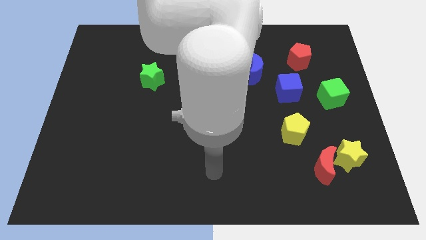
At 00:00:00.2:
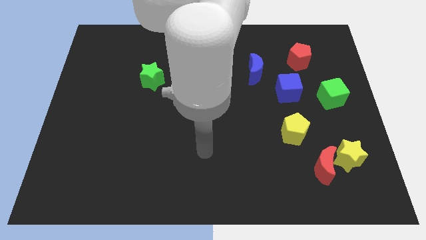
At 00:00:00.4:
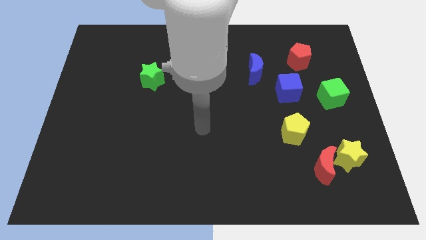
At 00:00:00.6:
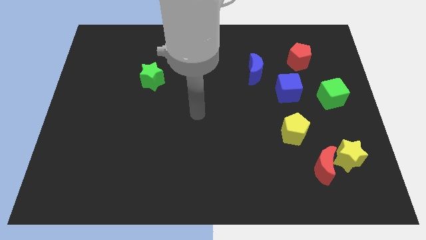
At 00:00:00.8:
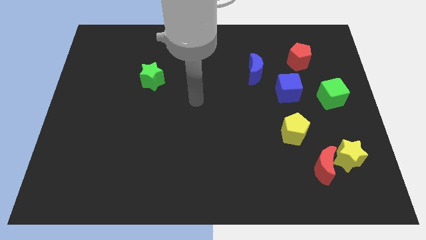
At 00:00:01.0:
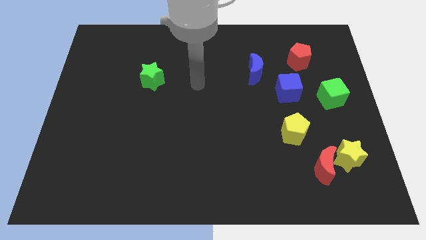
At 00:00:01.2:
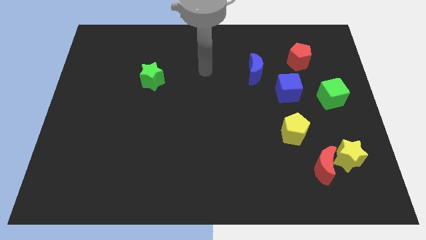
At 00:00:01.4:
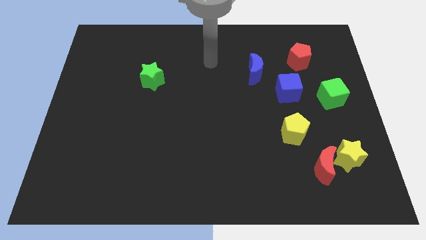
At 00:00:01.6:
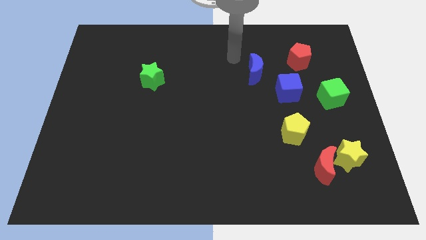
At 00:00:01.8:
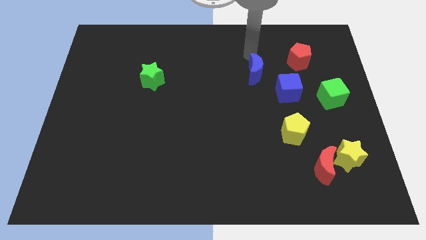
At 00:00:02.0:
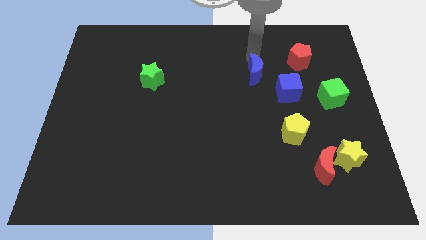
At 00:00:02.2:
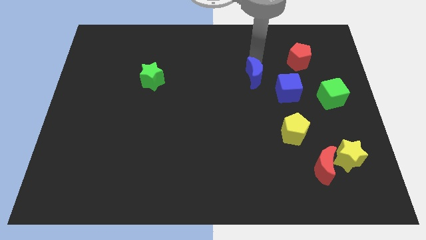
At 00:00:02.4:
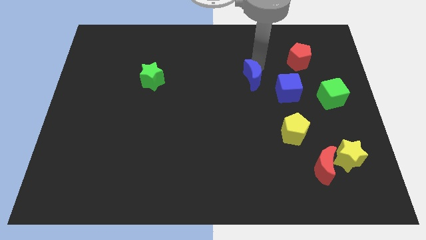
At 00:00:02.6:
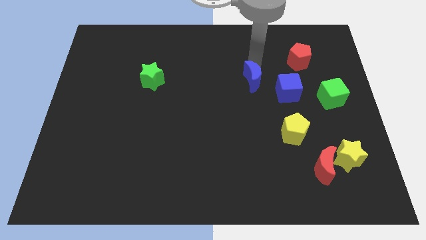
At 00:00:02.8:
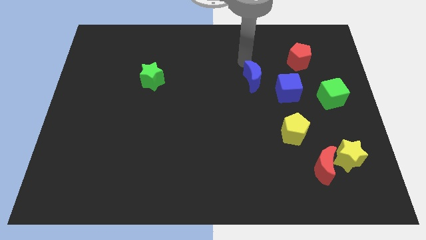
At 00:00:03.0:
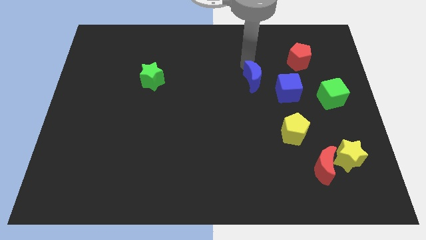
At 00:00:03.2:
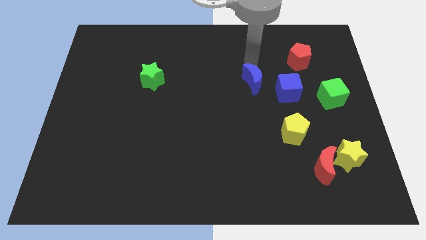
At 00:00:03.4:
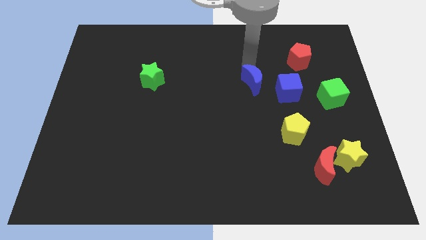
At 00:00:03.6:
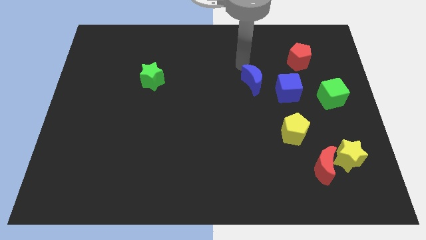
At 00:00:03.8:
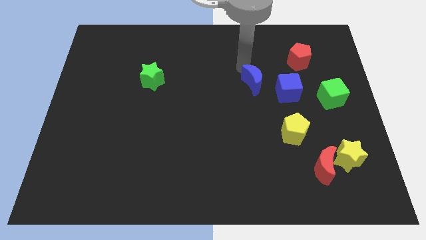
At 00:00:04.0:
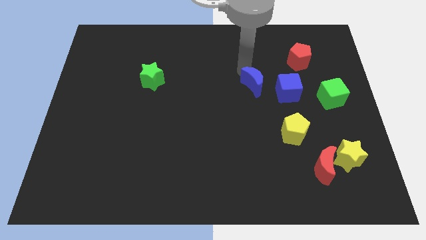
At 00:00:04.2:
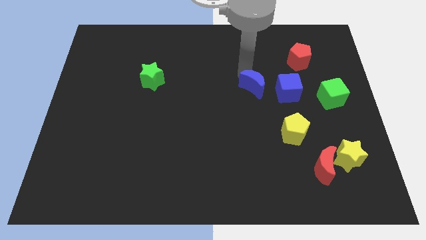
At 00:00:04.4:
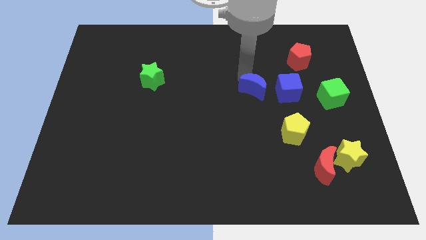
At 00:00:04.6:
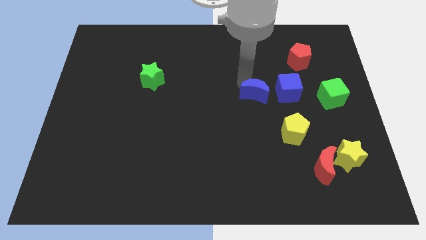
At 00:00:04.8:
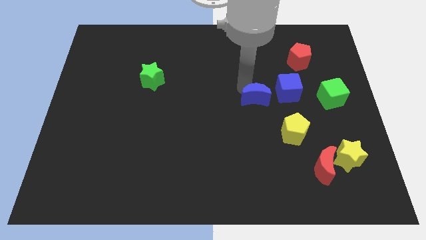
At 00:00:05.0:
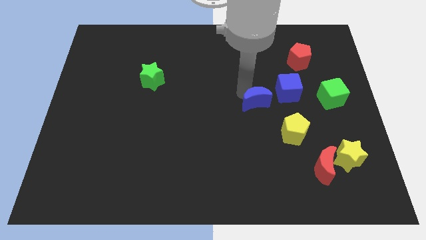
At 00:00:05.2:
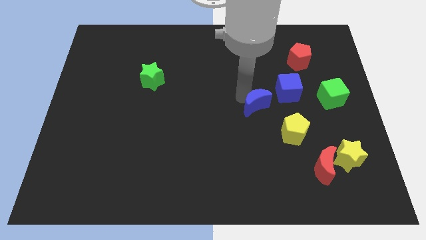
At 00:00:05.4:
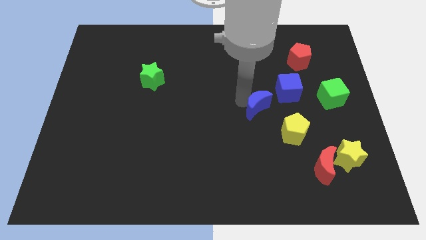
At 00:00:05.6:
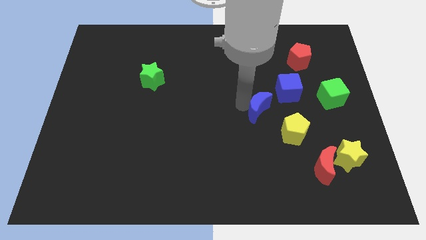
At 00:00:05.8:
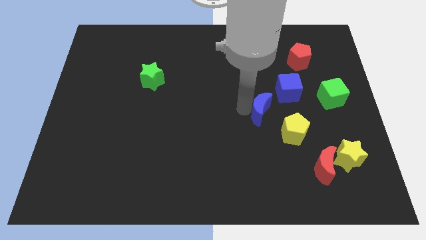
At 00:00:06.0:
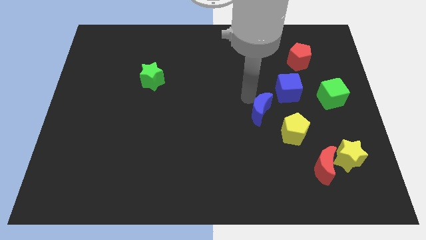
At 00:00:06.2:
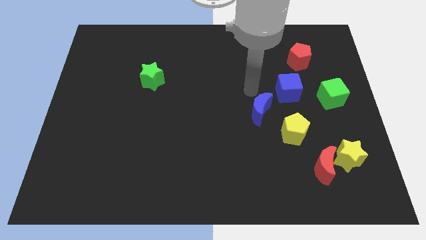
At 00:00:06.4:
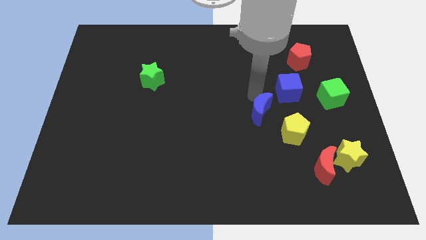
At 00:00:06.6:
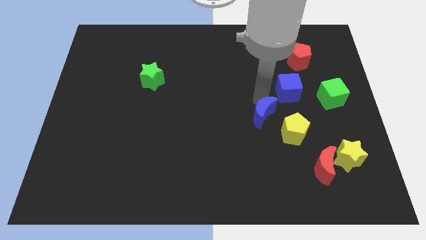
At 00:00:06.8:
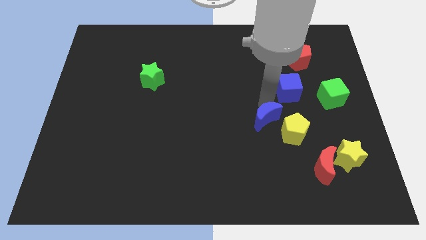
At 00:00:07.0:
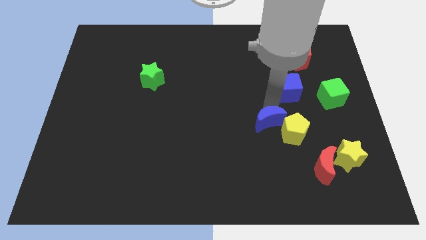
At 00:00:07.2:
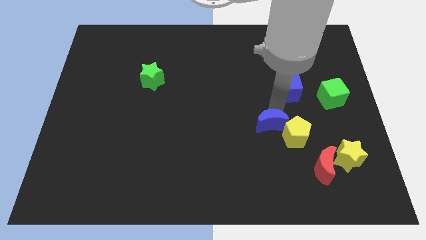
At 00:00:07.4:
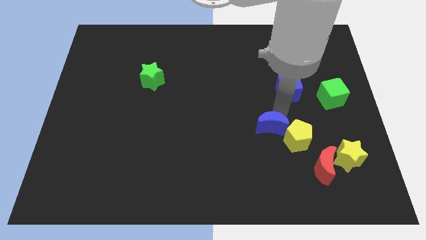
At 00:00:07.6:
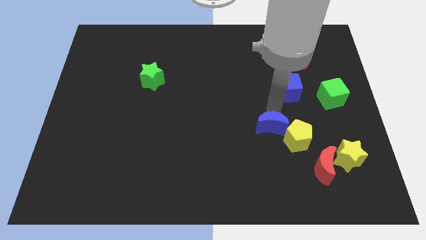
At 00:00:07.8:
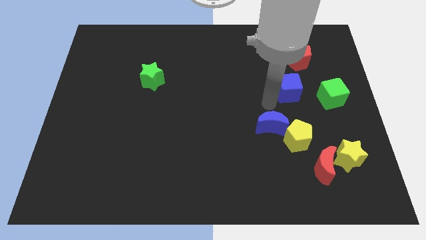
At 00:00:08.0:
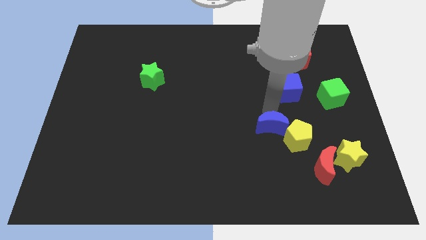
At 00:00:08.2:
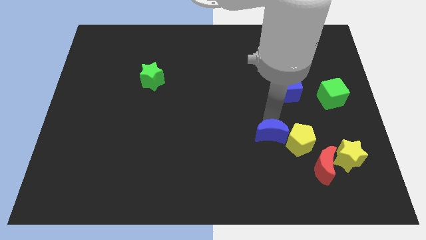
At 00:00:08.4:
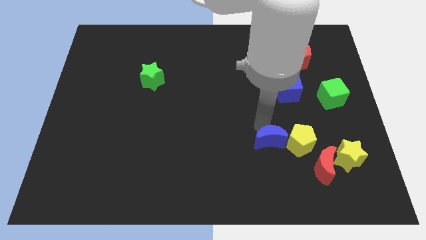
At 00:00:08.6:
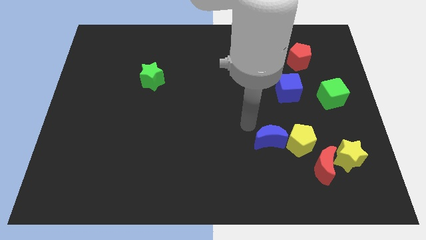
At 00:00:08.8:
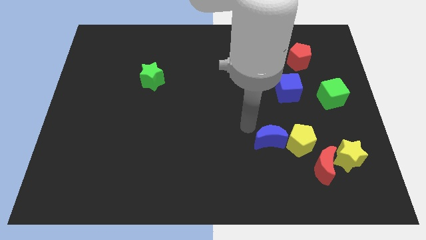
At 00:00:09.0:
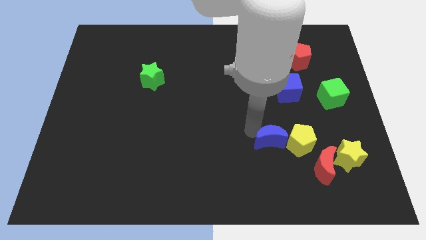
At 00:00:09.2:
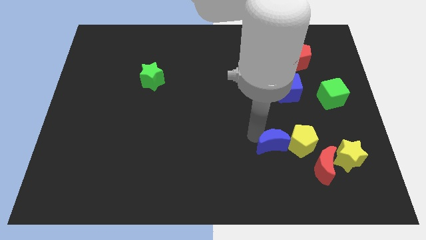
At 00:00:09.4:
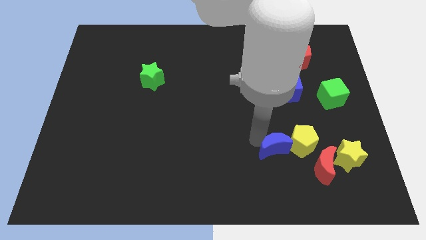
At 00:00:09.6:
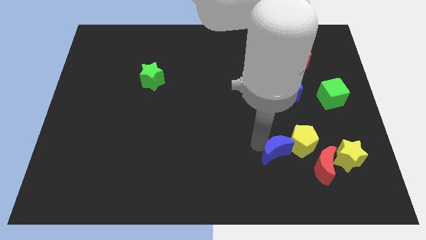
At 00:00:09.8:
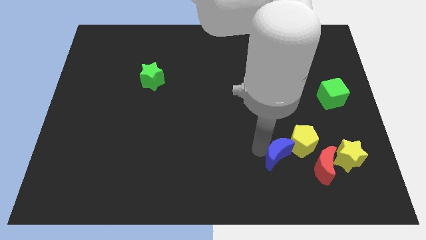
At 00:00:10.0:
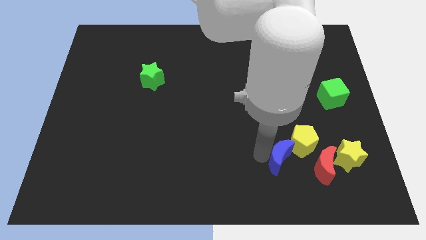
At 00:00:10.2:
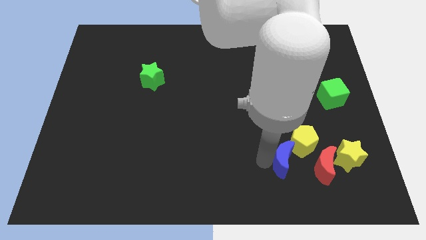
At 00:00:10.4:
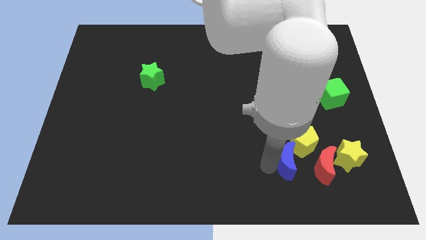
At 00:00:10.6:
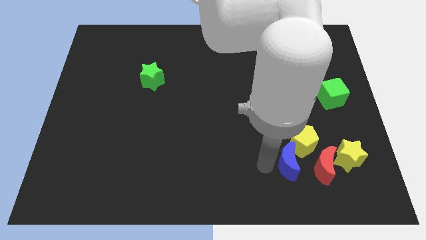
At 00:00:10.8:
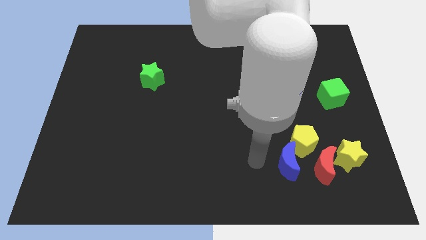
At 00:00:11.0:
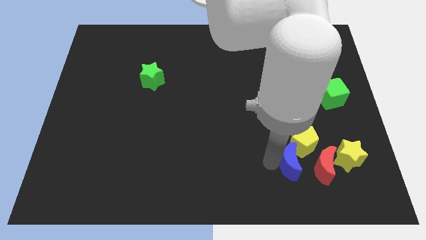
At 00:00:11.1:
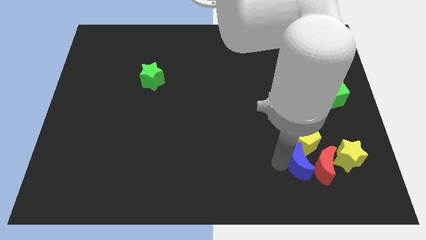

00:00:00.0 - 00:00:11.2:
slide the blue moon towards the red moon

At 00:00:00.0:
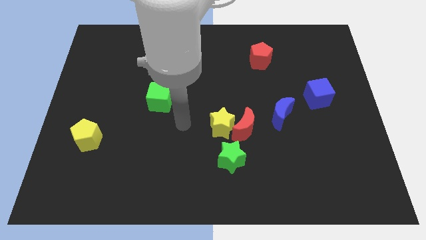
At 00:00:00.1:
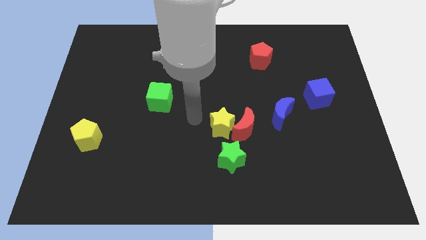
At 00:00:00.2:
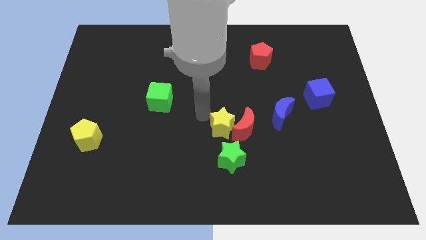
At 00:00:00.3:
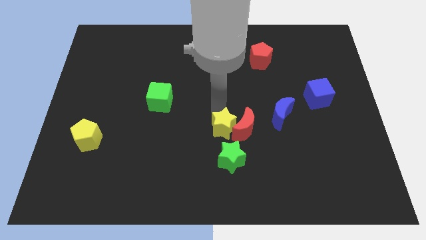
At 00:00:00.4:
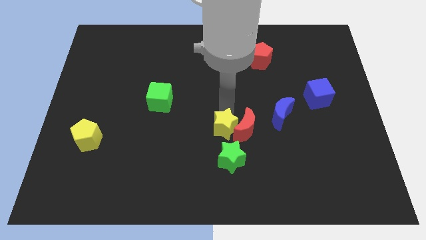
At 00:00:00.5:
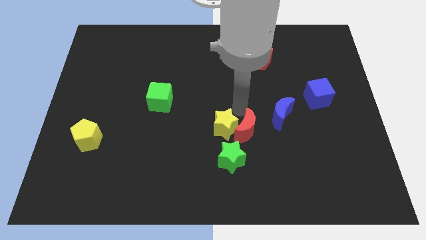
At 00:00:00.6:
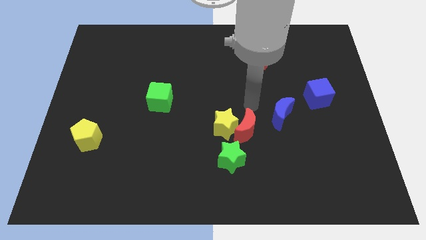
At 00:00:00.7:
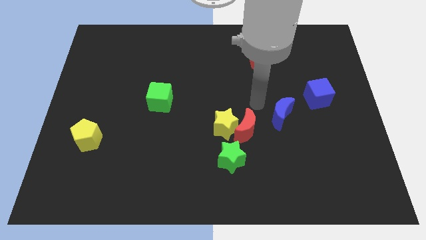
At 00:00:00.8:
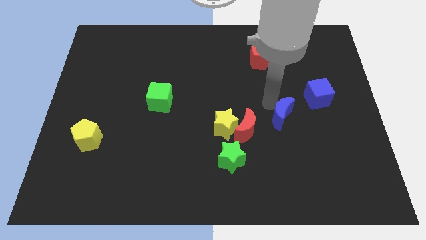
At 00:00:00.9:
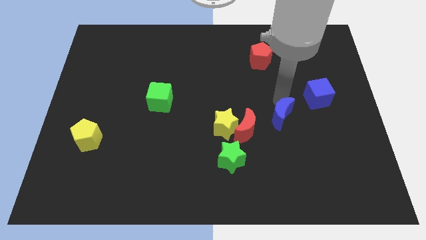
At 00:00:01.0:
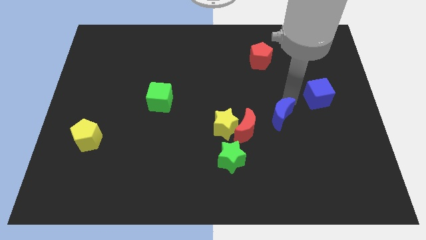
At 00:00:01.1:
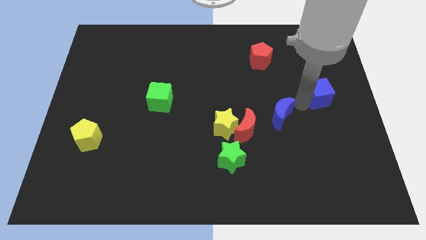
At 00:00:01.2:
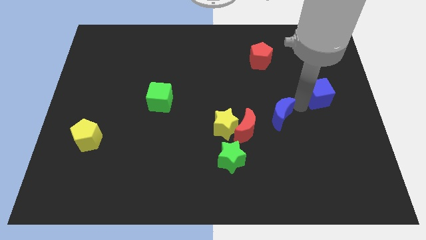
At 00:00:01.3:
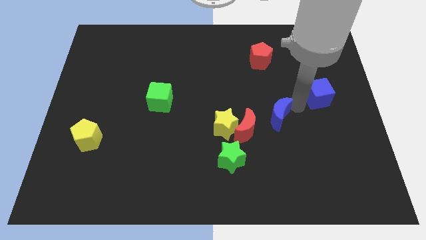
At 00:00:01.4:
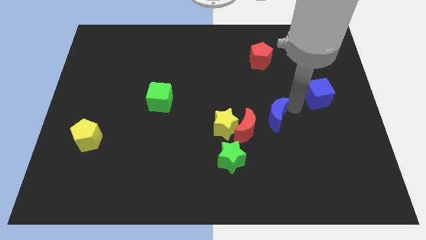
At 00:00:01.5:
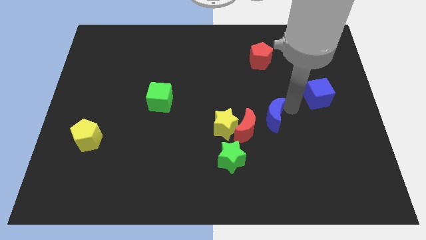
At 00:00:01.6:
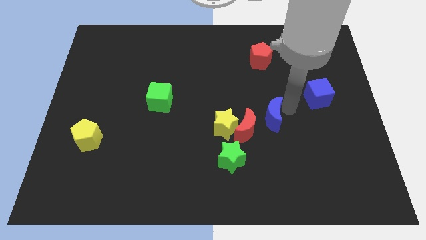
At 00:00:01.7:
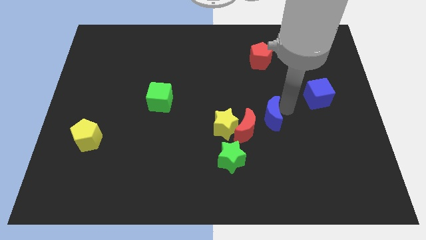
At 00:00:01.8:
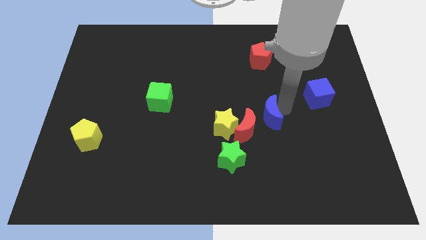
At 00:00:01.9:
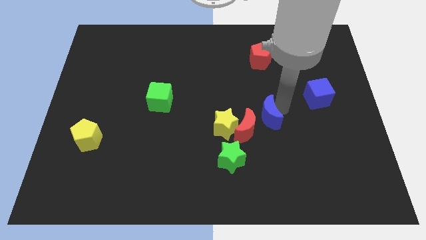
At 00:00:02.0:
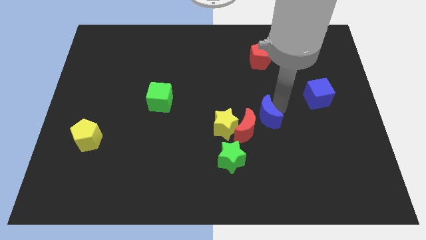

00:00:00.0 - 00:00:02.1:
push the blue moon to the red moon
